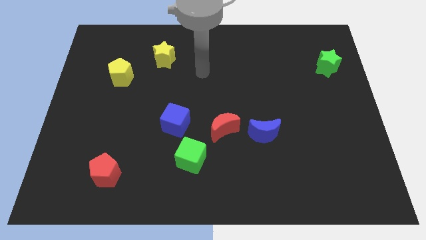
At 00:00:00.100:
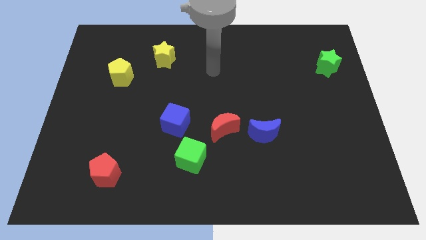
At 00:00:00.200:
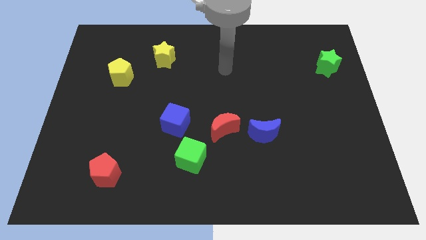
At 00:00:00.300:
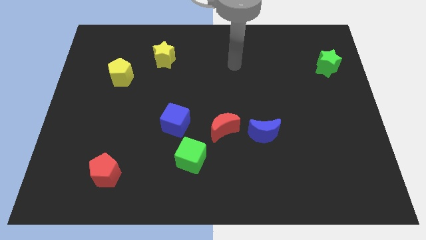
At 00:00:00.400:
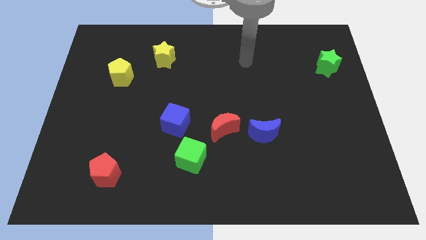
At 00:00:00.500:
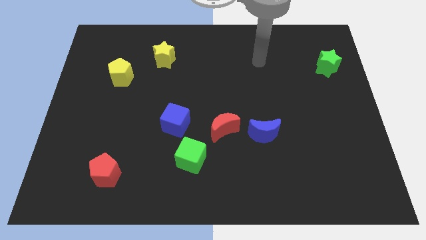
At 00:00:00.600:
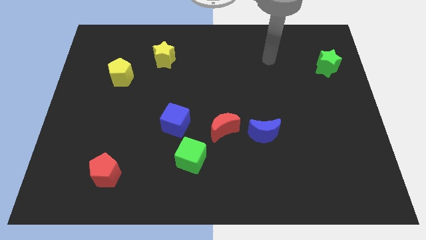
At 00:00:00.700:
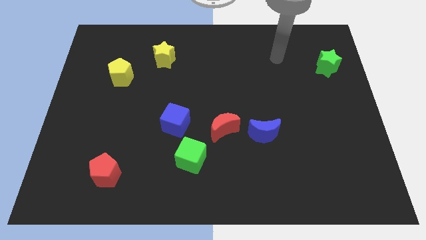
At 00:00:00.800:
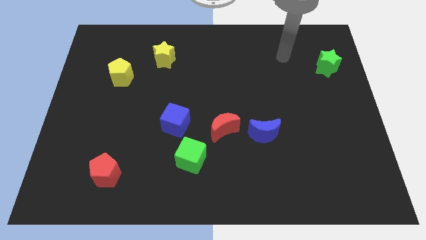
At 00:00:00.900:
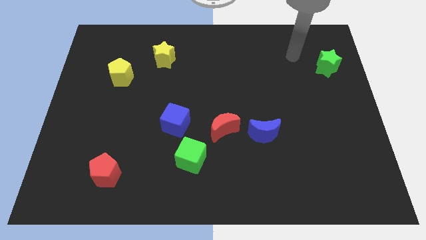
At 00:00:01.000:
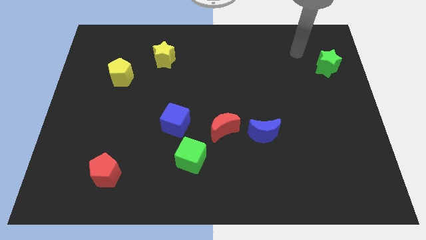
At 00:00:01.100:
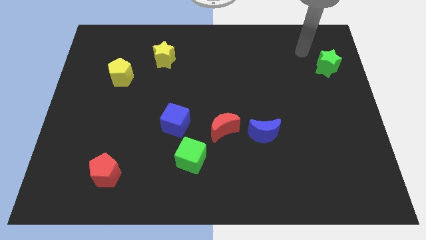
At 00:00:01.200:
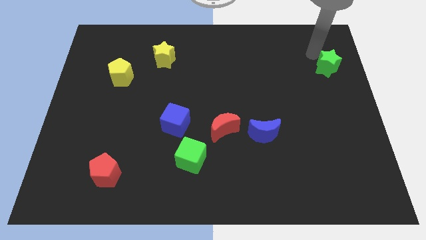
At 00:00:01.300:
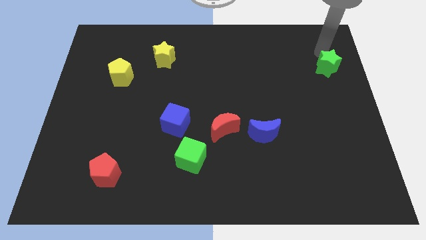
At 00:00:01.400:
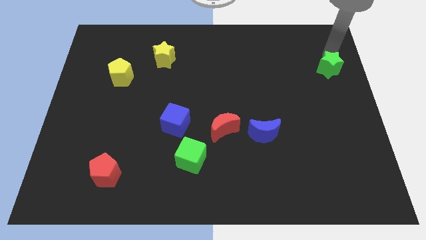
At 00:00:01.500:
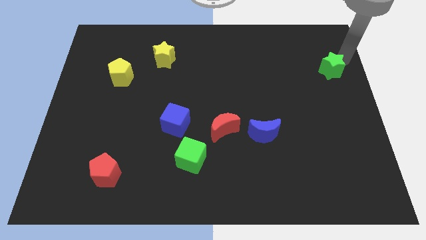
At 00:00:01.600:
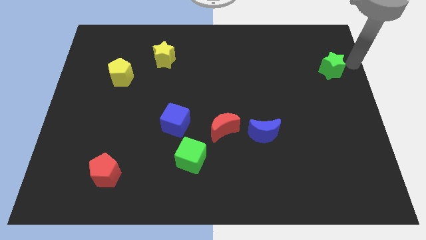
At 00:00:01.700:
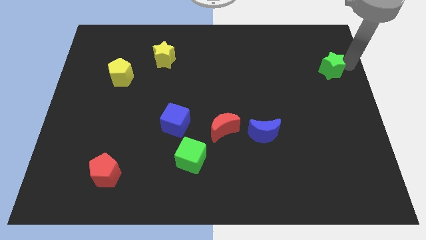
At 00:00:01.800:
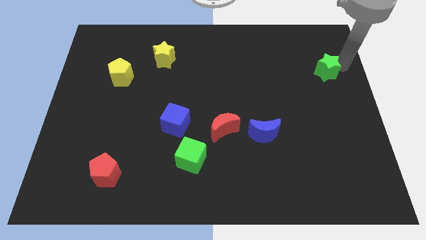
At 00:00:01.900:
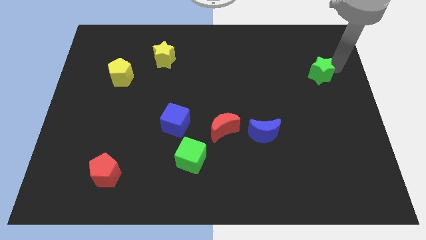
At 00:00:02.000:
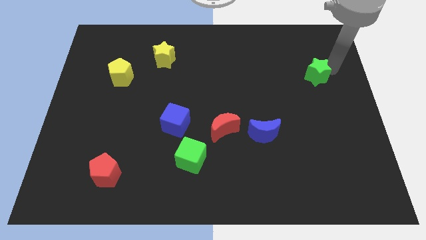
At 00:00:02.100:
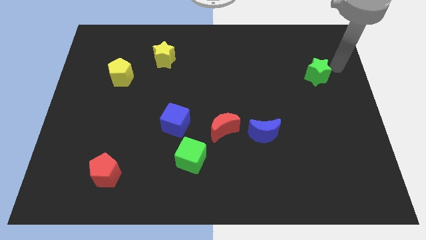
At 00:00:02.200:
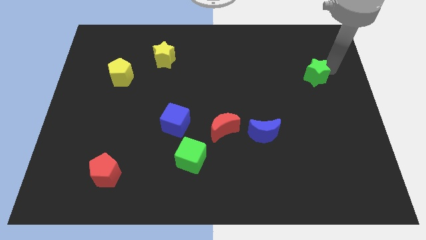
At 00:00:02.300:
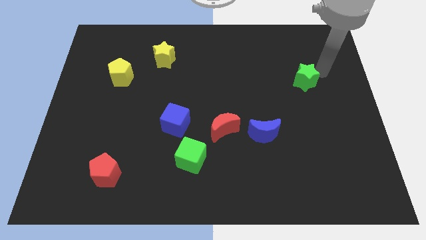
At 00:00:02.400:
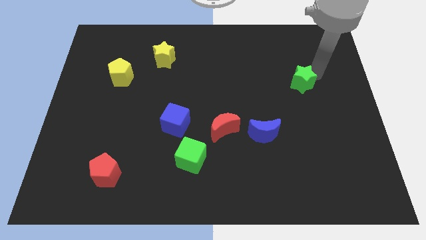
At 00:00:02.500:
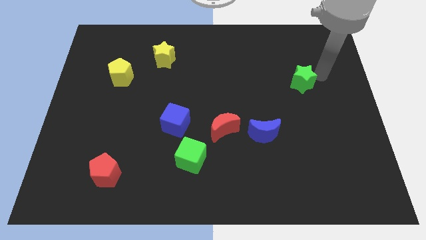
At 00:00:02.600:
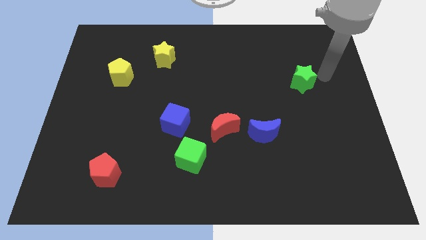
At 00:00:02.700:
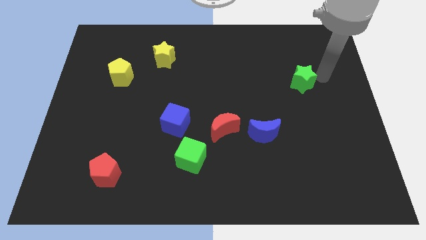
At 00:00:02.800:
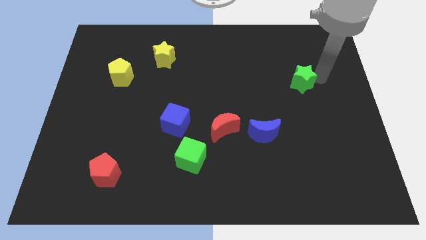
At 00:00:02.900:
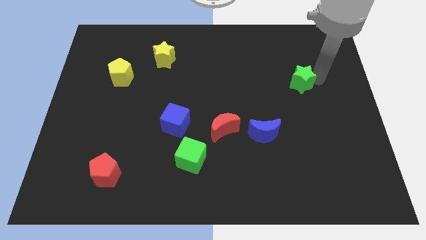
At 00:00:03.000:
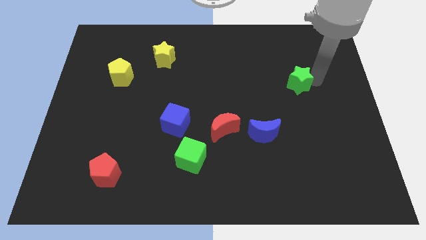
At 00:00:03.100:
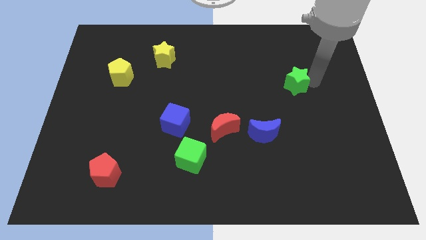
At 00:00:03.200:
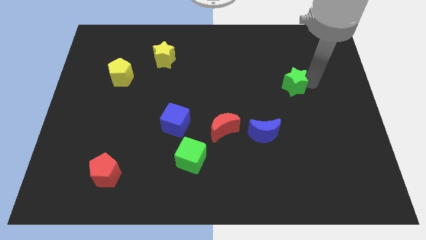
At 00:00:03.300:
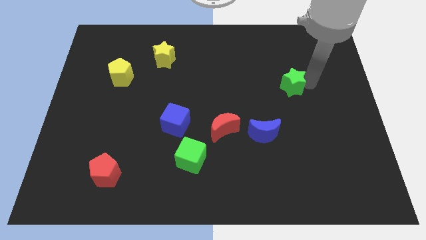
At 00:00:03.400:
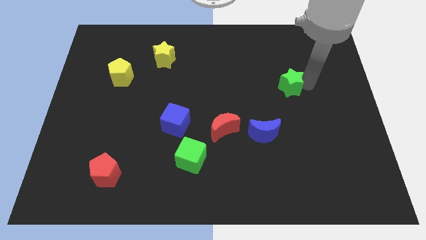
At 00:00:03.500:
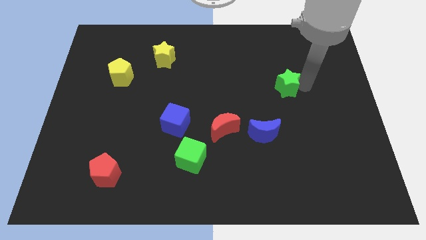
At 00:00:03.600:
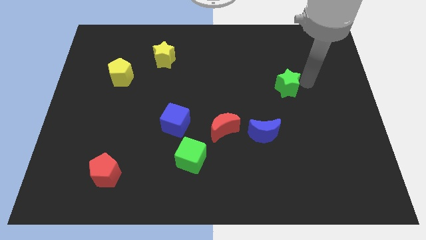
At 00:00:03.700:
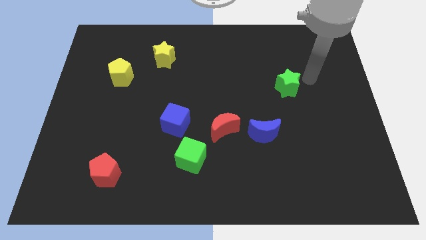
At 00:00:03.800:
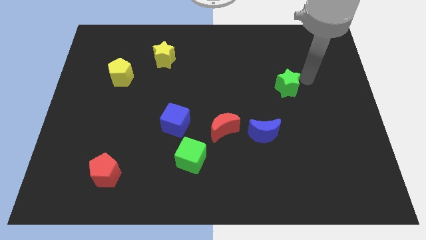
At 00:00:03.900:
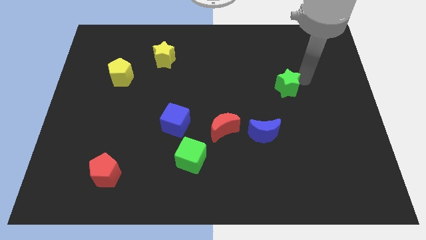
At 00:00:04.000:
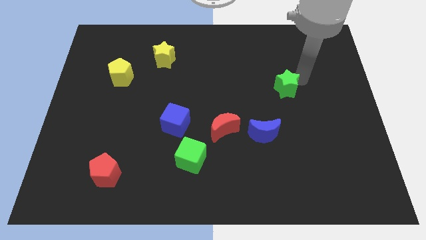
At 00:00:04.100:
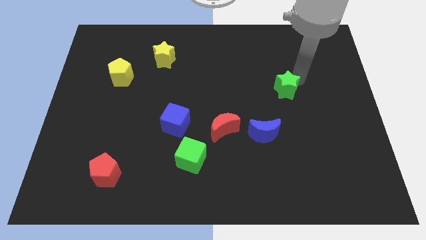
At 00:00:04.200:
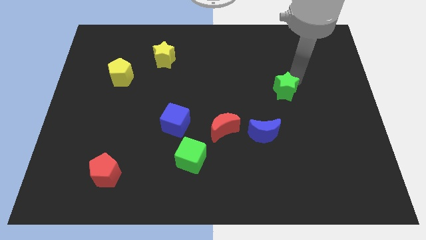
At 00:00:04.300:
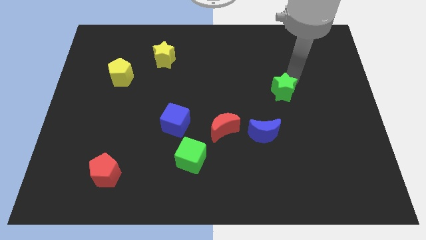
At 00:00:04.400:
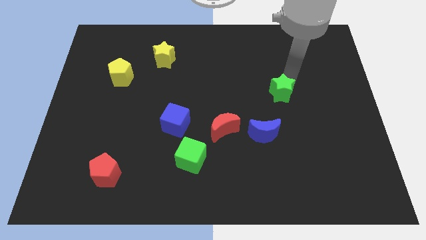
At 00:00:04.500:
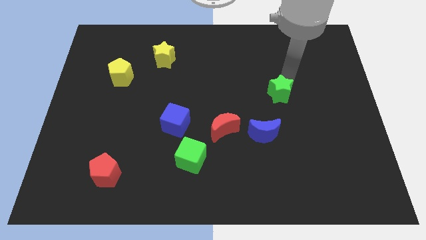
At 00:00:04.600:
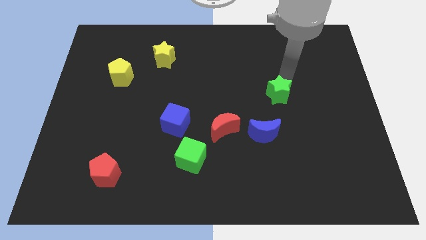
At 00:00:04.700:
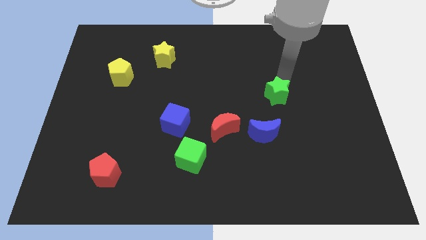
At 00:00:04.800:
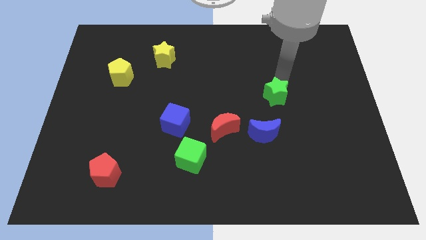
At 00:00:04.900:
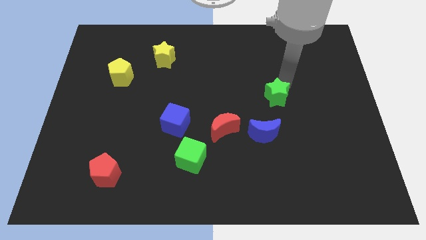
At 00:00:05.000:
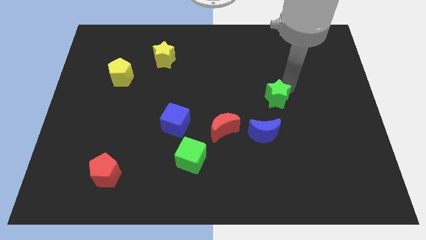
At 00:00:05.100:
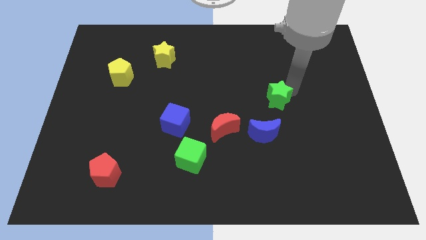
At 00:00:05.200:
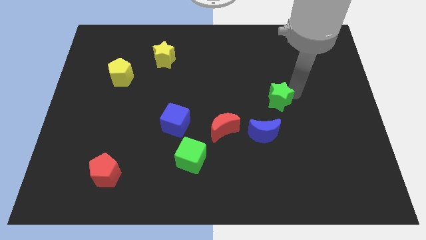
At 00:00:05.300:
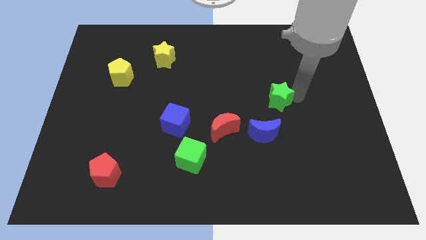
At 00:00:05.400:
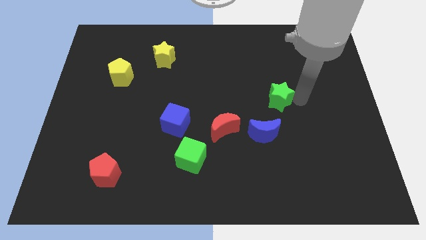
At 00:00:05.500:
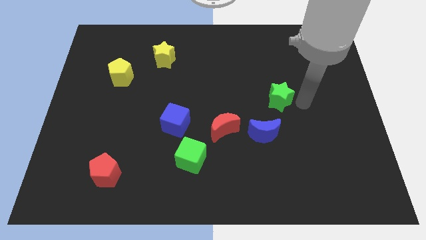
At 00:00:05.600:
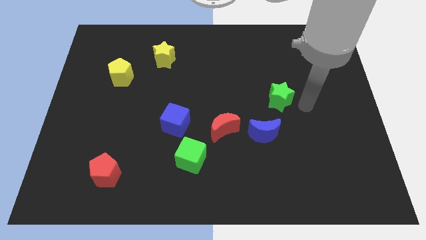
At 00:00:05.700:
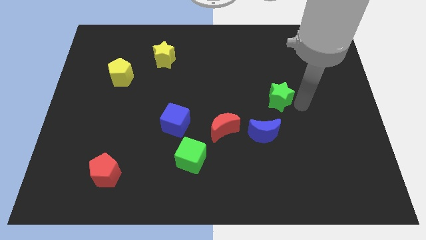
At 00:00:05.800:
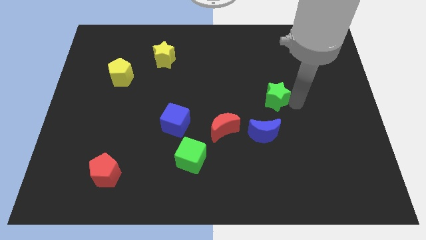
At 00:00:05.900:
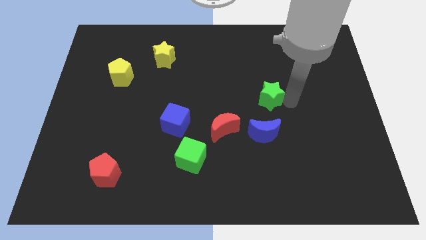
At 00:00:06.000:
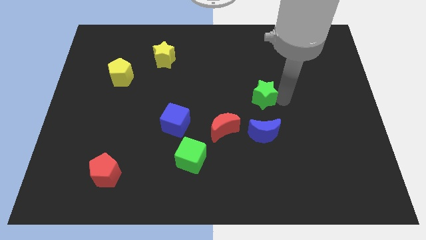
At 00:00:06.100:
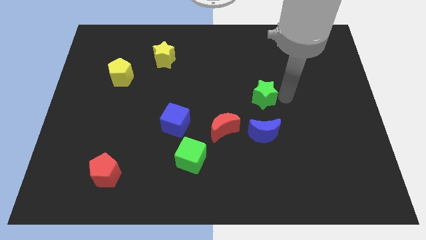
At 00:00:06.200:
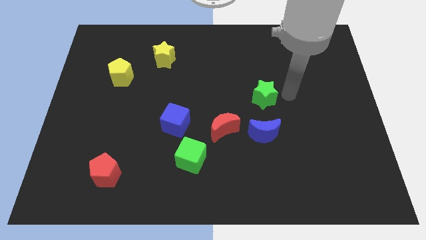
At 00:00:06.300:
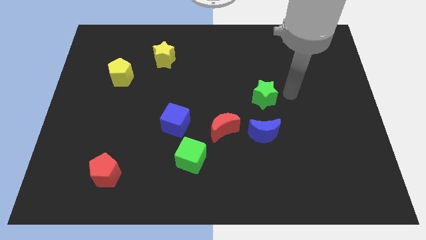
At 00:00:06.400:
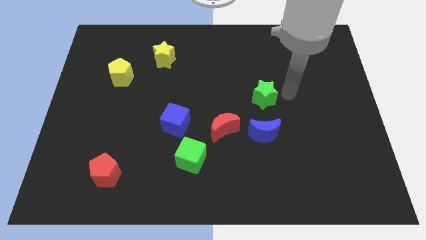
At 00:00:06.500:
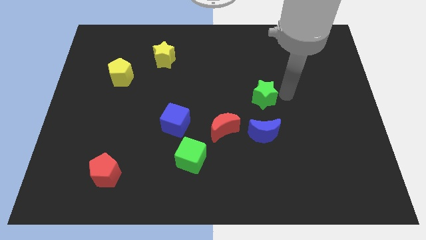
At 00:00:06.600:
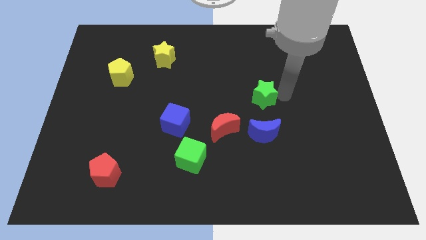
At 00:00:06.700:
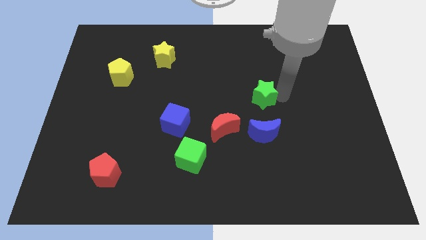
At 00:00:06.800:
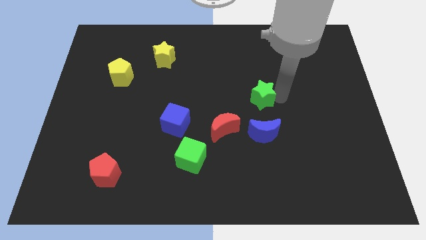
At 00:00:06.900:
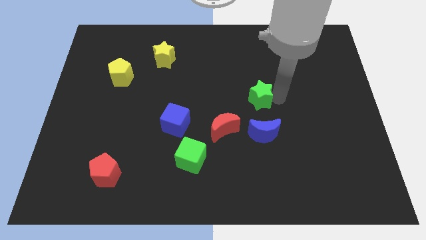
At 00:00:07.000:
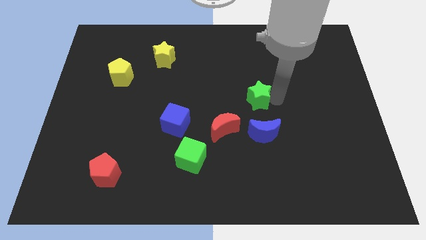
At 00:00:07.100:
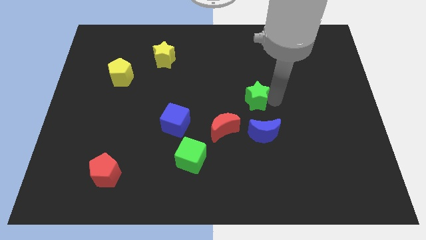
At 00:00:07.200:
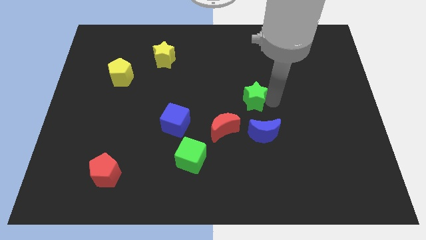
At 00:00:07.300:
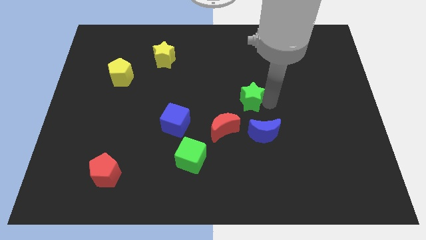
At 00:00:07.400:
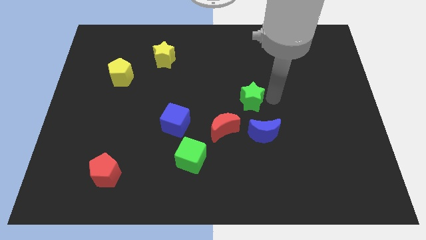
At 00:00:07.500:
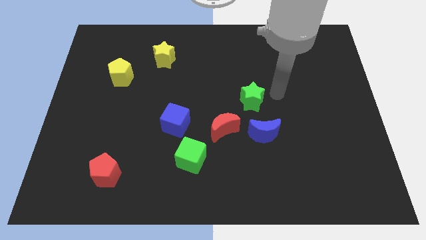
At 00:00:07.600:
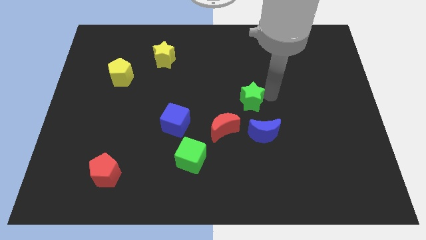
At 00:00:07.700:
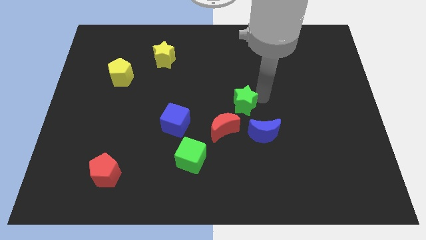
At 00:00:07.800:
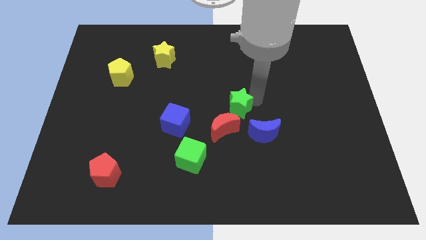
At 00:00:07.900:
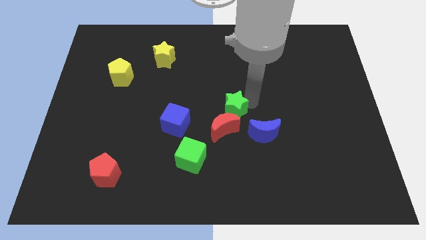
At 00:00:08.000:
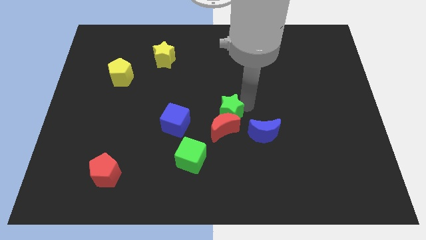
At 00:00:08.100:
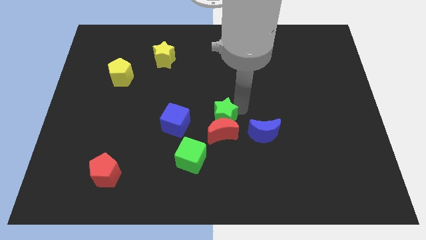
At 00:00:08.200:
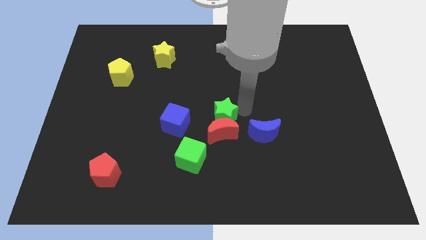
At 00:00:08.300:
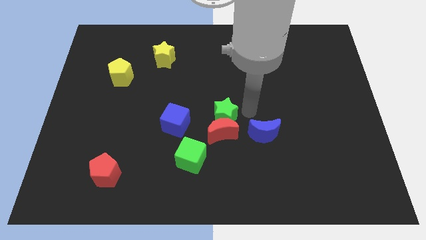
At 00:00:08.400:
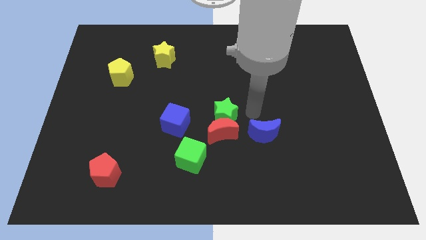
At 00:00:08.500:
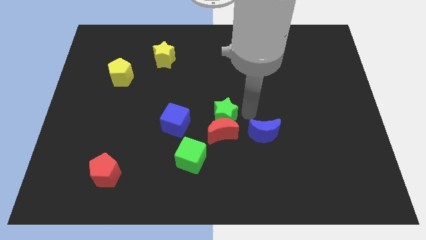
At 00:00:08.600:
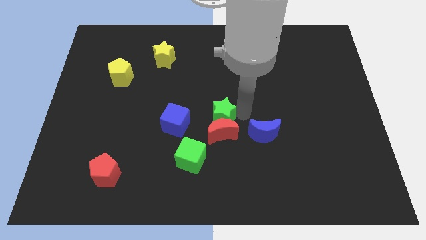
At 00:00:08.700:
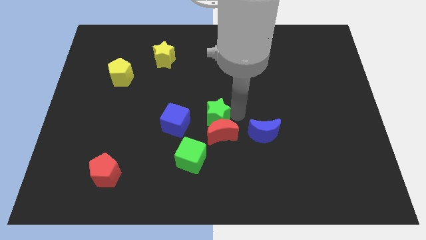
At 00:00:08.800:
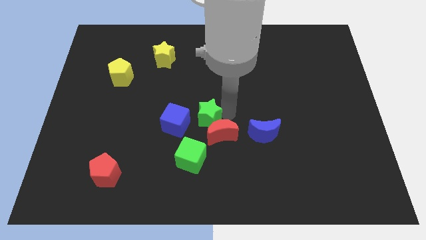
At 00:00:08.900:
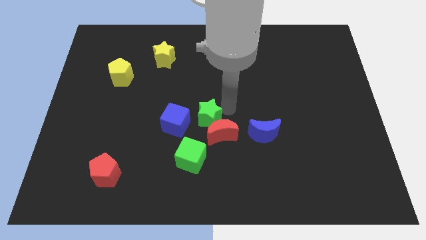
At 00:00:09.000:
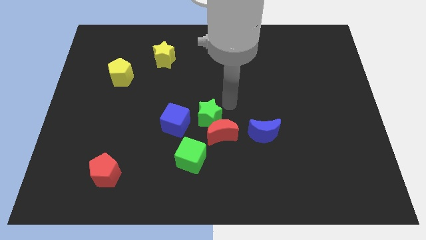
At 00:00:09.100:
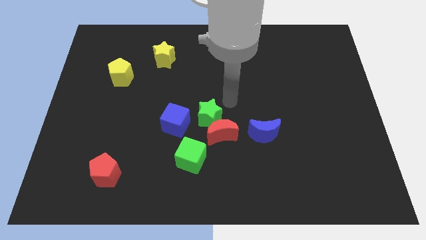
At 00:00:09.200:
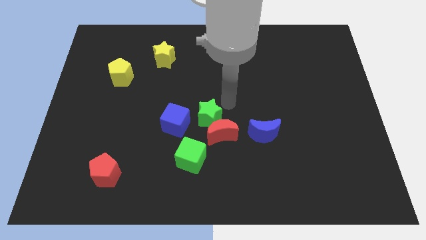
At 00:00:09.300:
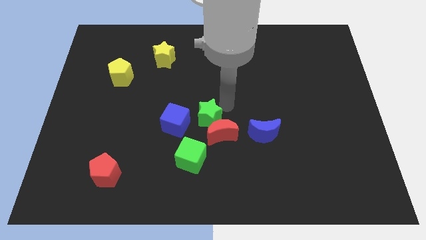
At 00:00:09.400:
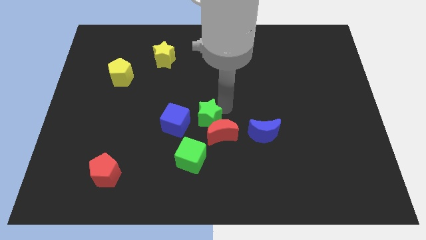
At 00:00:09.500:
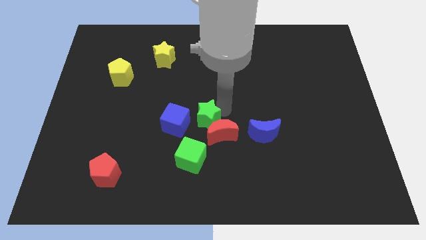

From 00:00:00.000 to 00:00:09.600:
push the green star just left of the red moon
